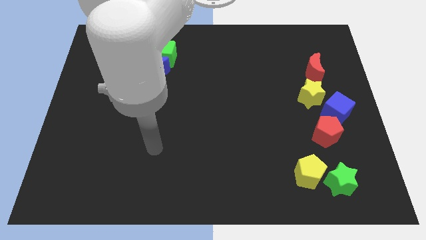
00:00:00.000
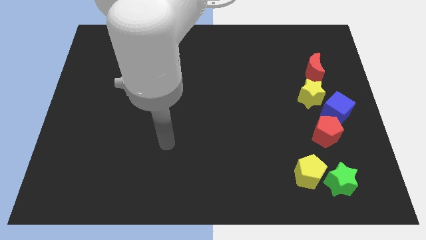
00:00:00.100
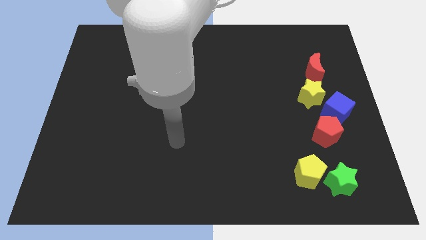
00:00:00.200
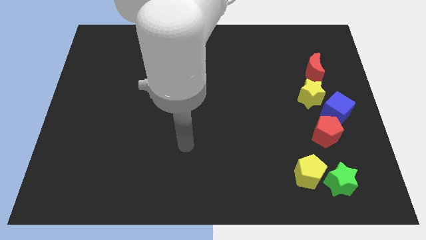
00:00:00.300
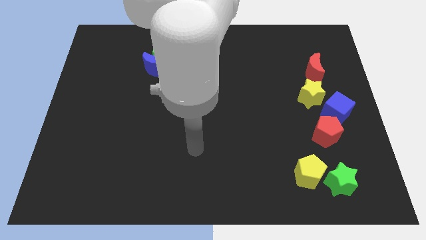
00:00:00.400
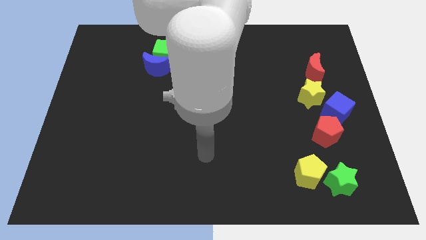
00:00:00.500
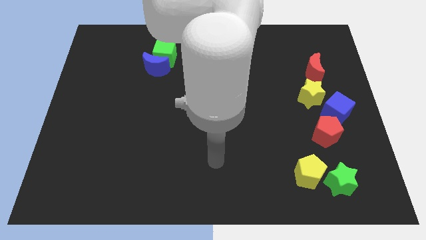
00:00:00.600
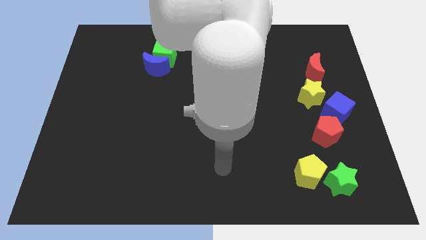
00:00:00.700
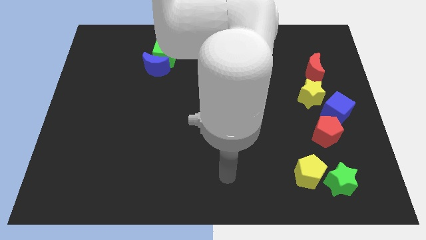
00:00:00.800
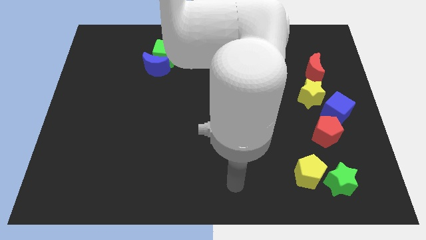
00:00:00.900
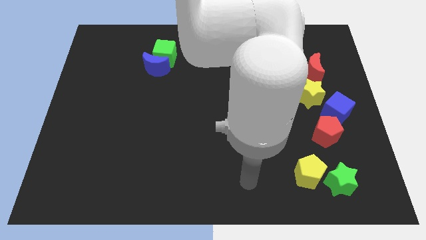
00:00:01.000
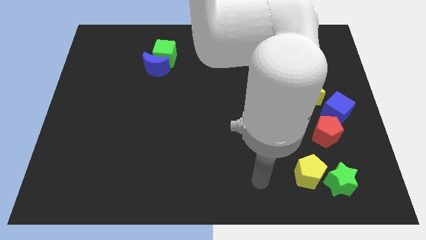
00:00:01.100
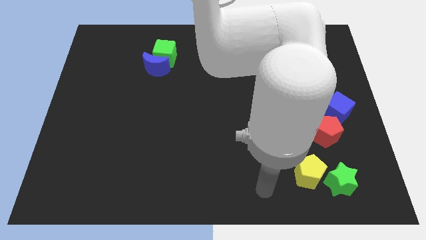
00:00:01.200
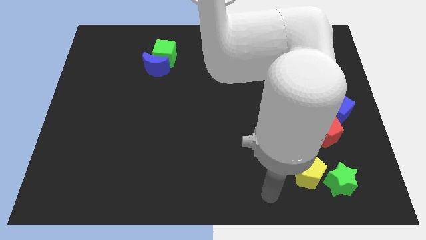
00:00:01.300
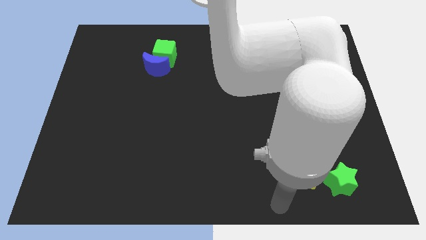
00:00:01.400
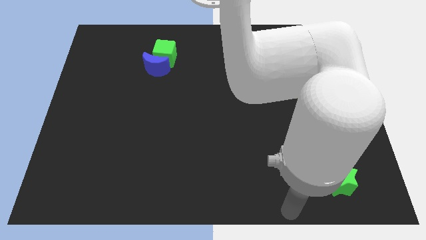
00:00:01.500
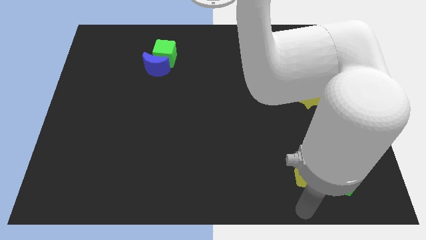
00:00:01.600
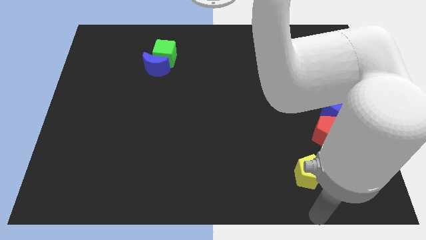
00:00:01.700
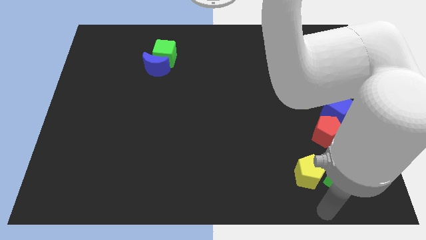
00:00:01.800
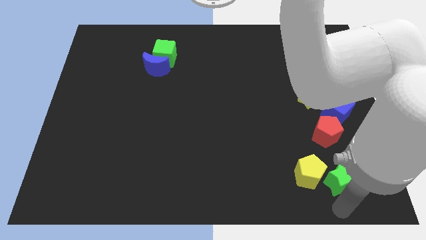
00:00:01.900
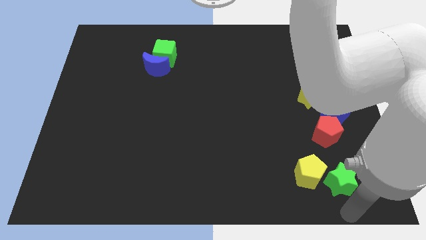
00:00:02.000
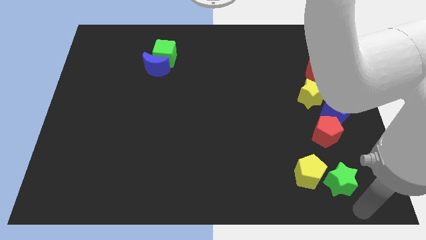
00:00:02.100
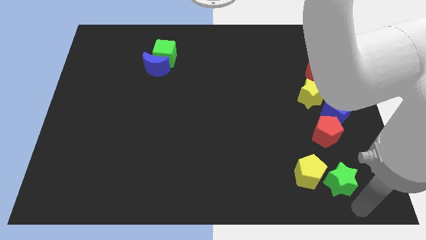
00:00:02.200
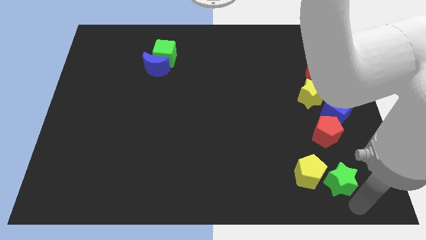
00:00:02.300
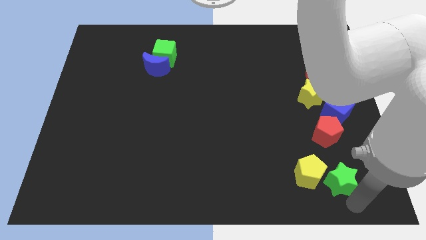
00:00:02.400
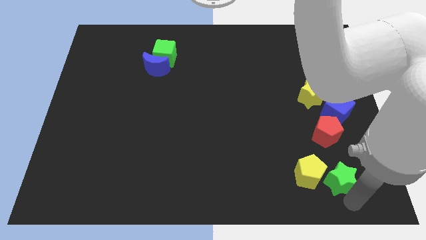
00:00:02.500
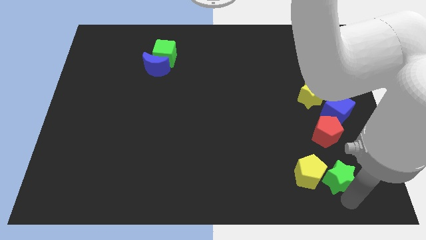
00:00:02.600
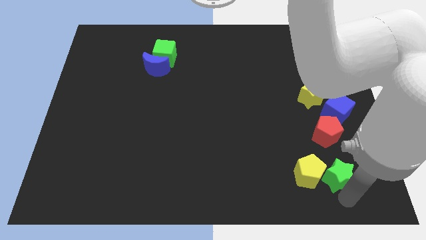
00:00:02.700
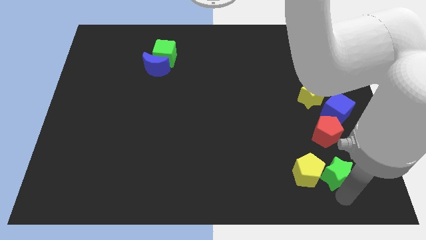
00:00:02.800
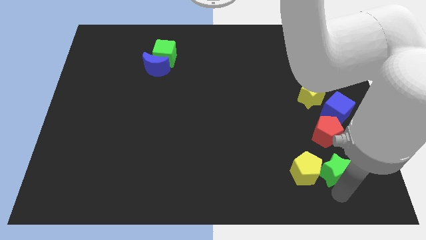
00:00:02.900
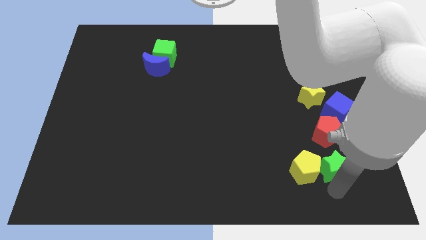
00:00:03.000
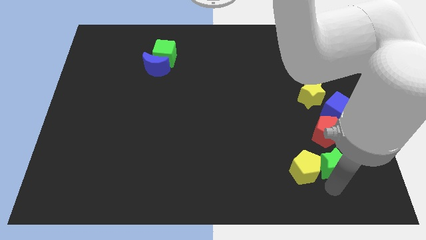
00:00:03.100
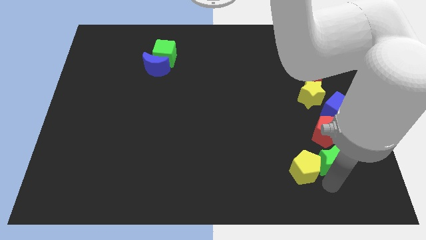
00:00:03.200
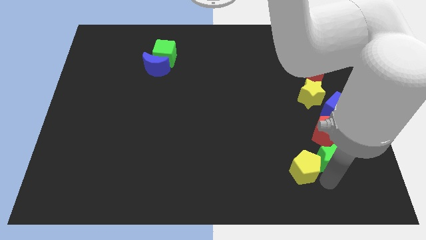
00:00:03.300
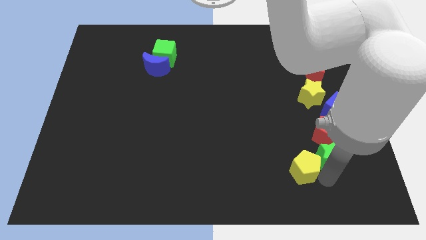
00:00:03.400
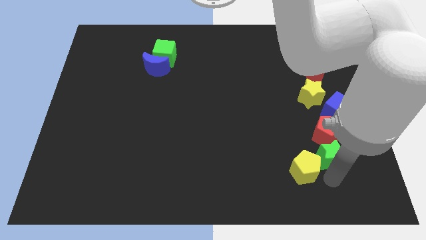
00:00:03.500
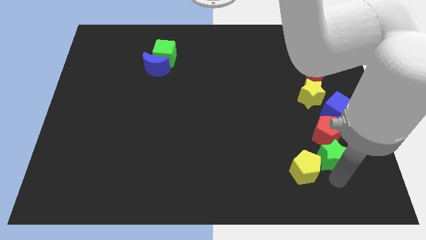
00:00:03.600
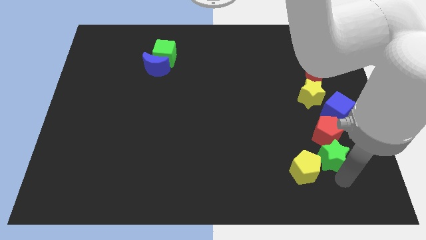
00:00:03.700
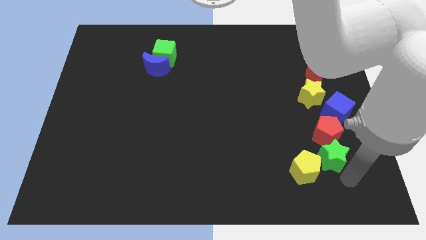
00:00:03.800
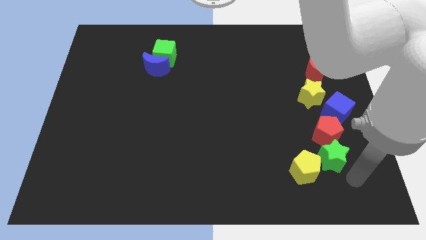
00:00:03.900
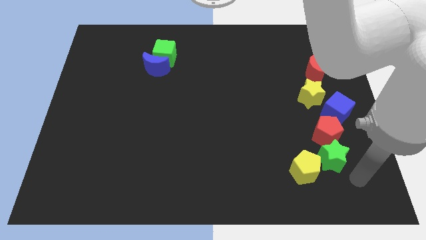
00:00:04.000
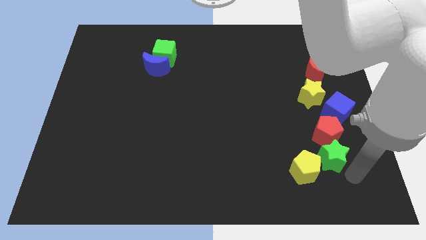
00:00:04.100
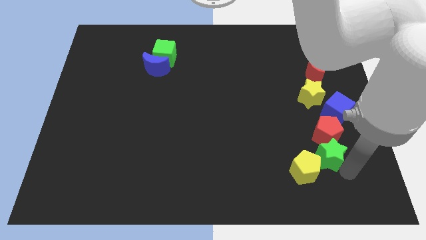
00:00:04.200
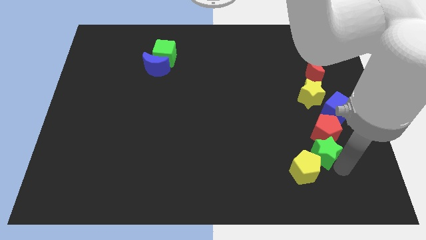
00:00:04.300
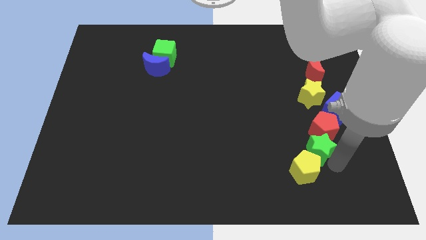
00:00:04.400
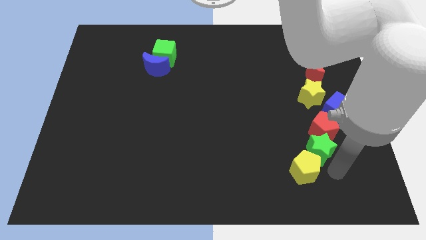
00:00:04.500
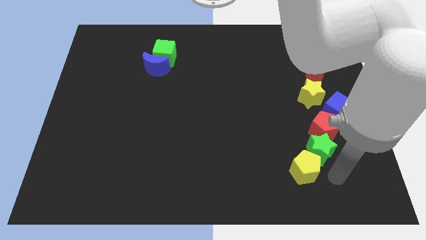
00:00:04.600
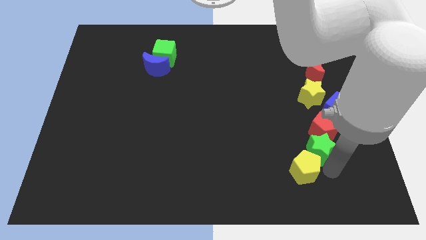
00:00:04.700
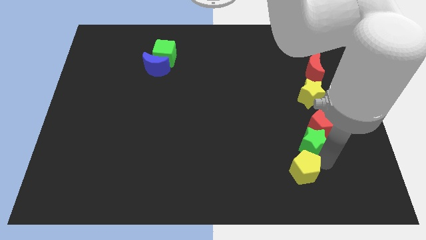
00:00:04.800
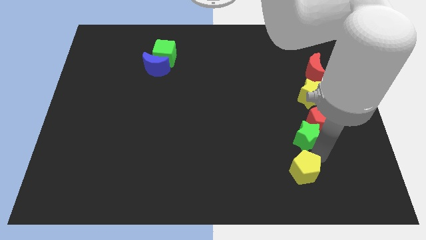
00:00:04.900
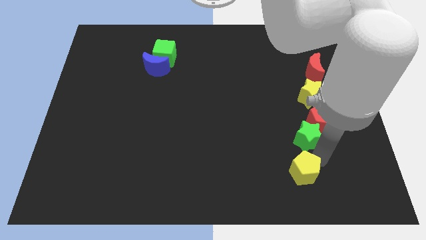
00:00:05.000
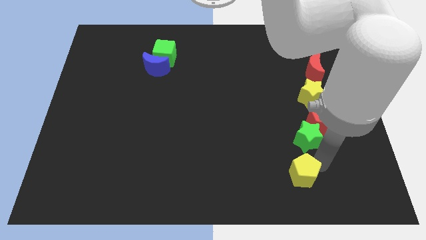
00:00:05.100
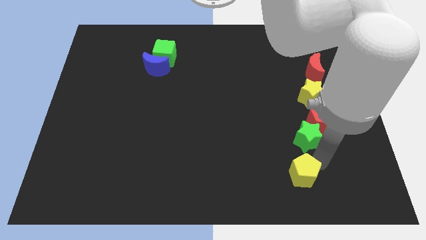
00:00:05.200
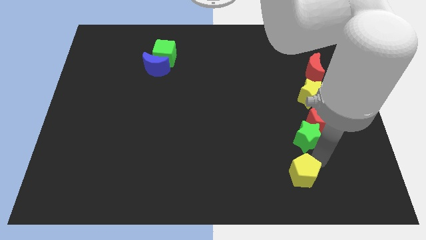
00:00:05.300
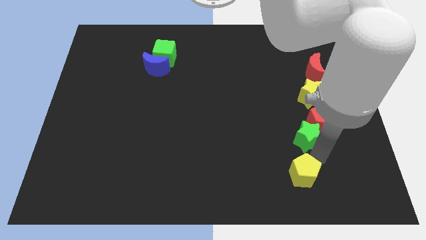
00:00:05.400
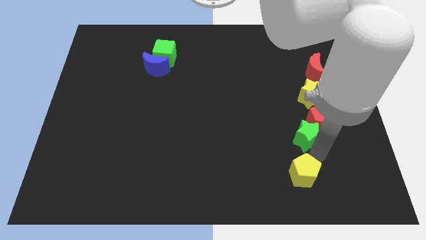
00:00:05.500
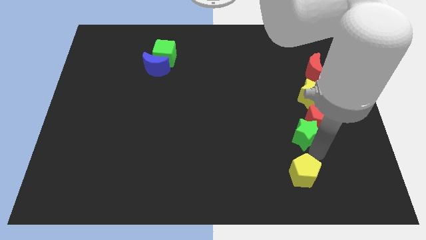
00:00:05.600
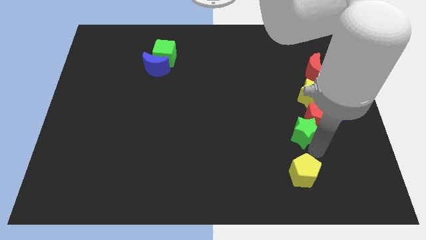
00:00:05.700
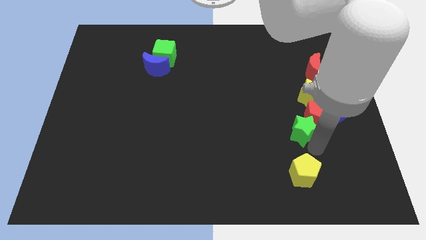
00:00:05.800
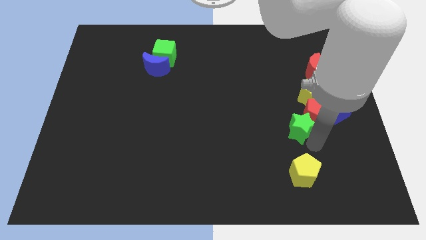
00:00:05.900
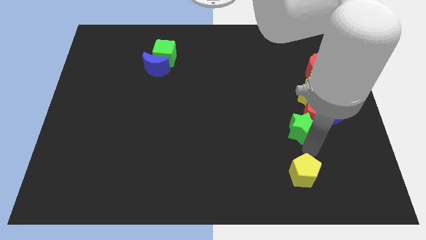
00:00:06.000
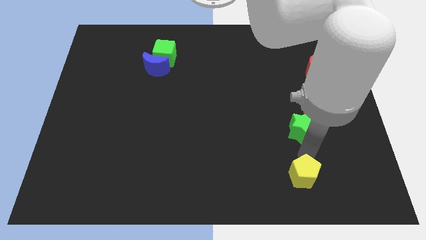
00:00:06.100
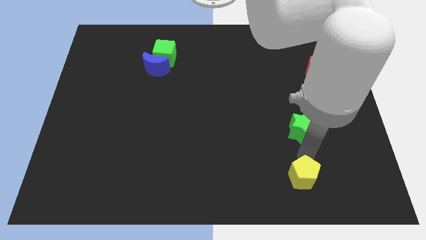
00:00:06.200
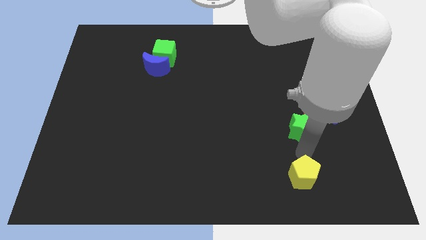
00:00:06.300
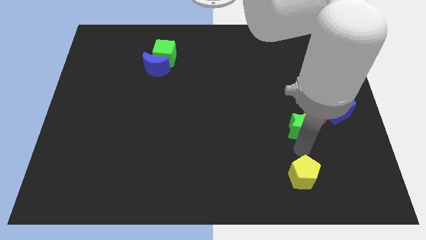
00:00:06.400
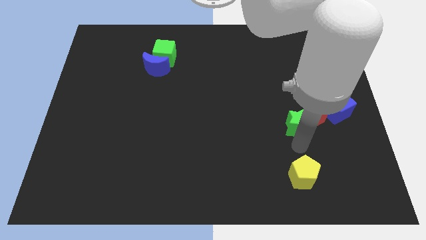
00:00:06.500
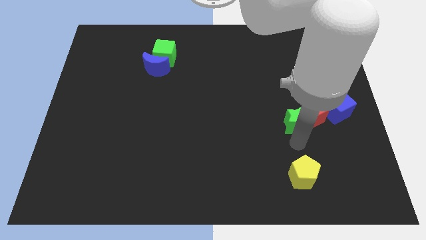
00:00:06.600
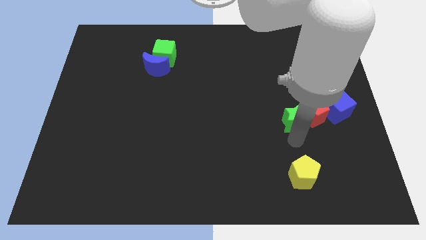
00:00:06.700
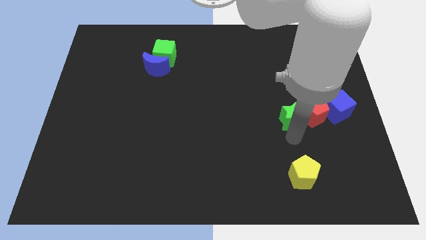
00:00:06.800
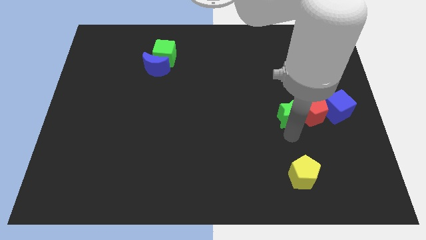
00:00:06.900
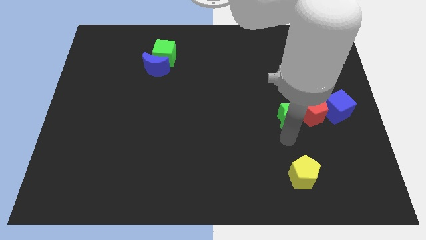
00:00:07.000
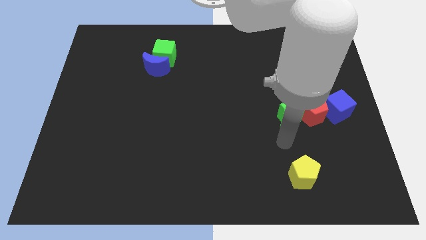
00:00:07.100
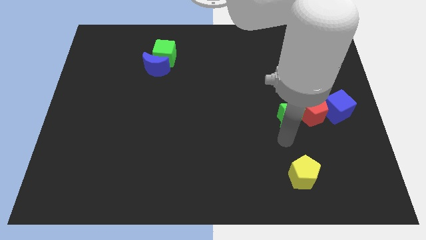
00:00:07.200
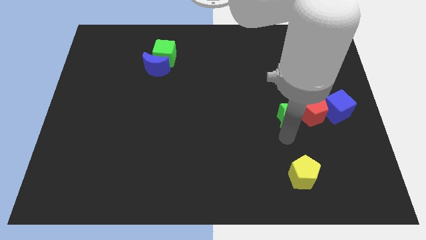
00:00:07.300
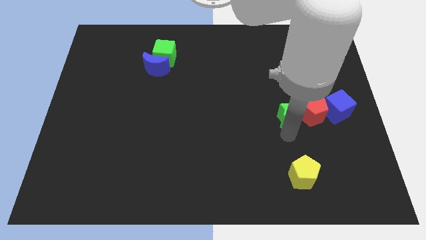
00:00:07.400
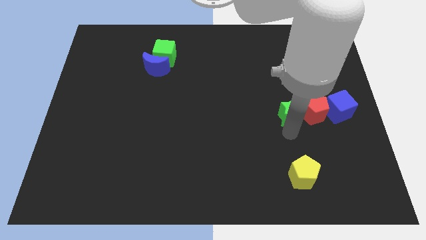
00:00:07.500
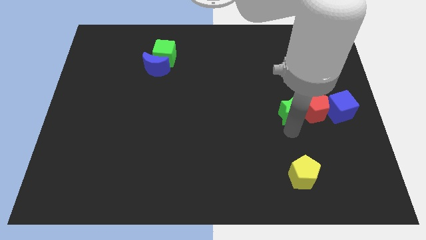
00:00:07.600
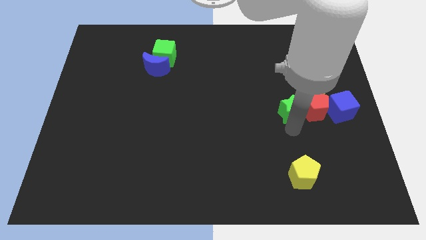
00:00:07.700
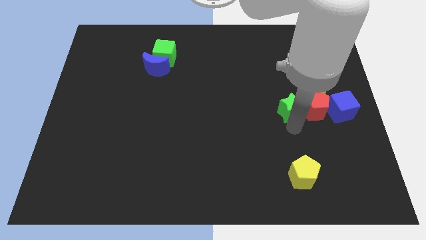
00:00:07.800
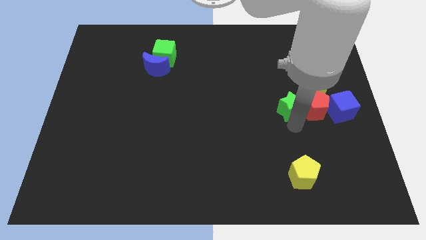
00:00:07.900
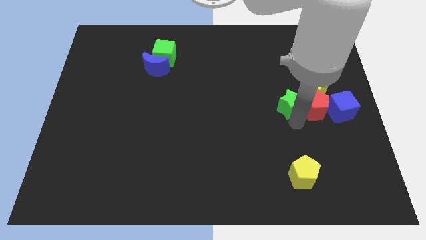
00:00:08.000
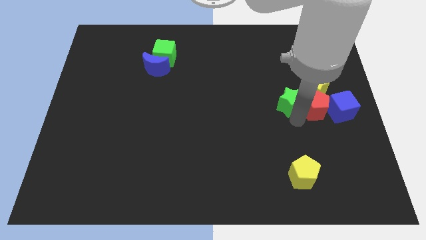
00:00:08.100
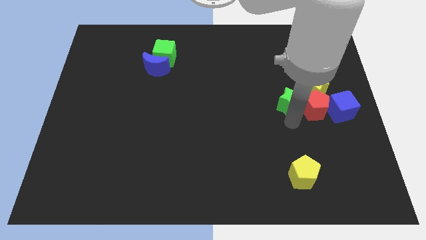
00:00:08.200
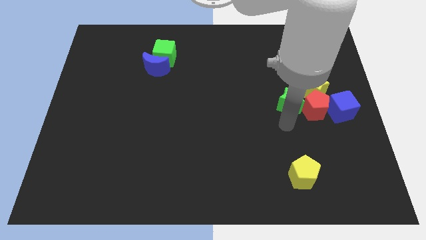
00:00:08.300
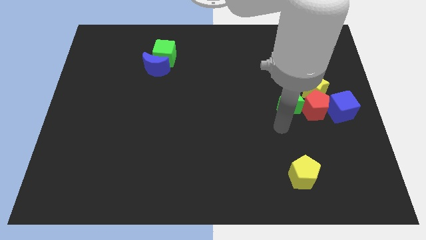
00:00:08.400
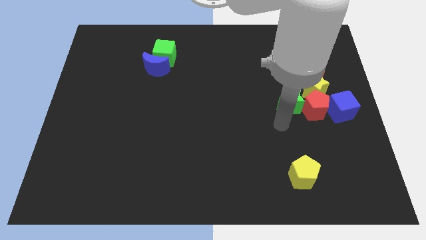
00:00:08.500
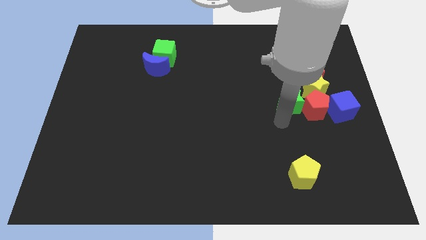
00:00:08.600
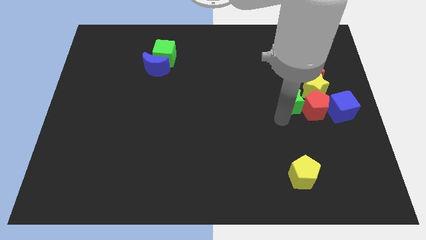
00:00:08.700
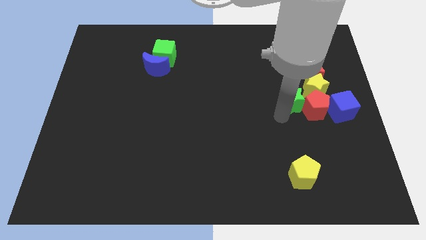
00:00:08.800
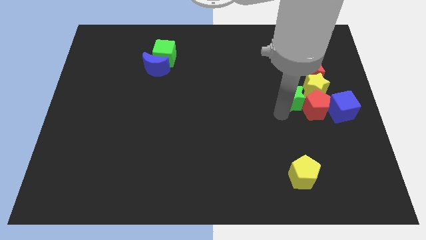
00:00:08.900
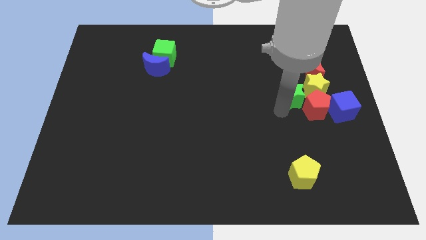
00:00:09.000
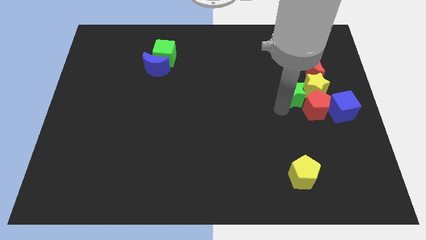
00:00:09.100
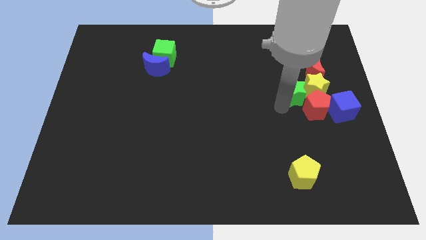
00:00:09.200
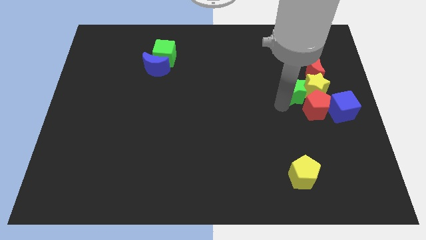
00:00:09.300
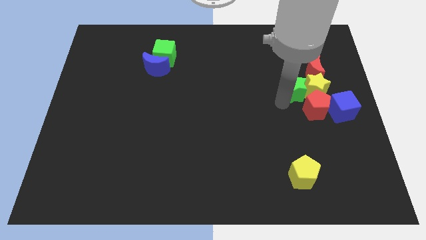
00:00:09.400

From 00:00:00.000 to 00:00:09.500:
push the green star diagonally up and to the left of the blue cube
